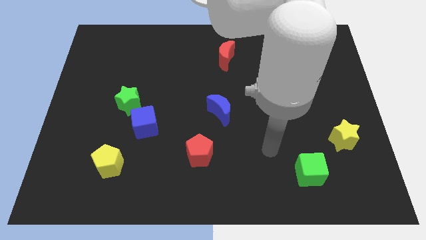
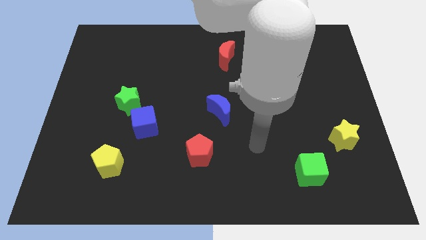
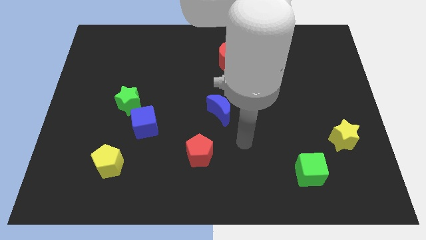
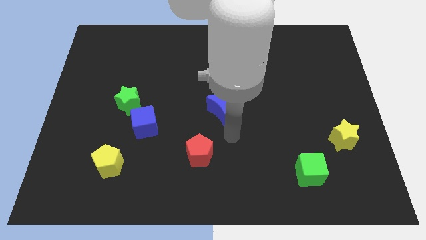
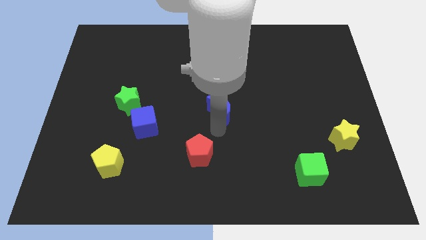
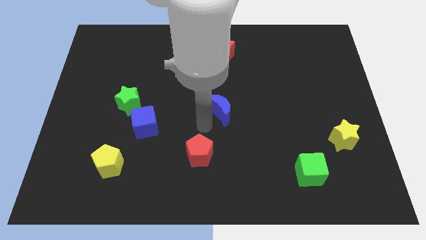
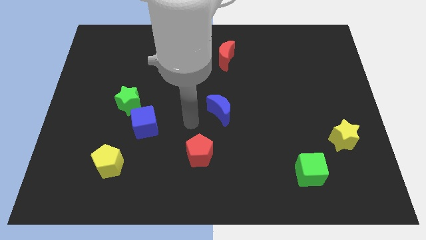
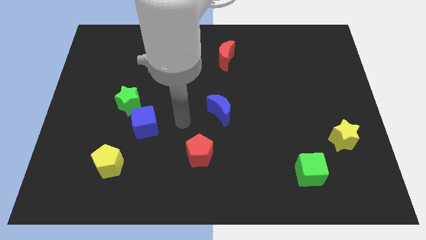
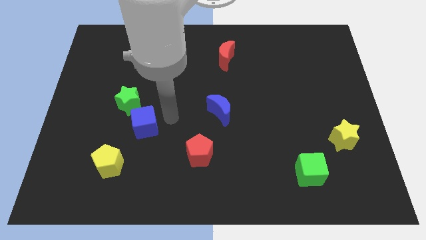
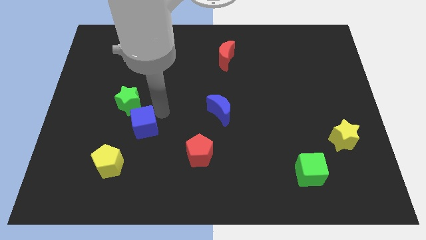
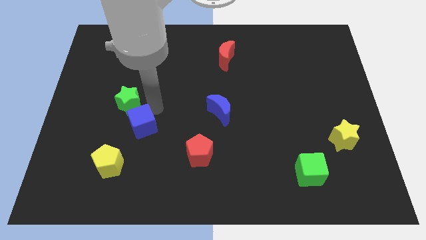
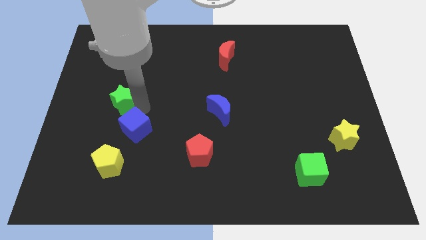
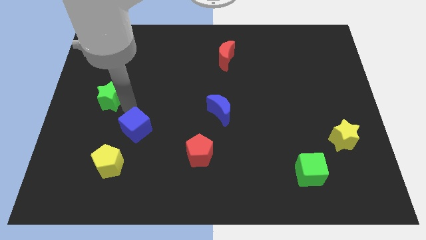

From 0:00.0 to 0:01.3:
move the blue cube away from the green star

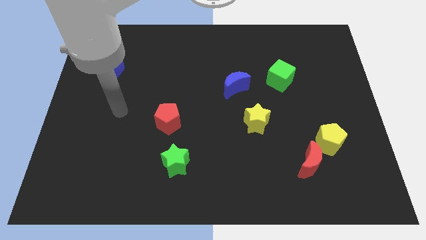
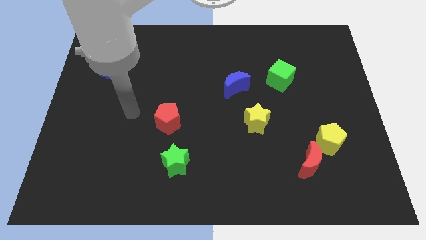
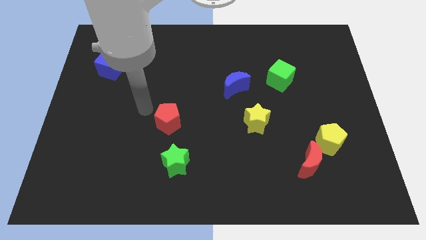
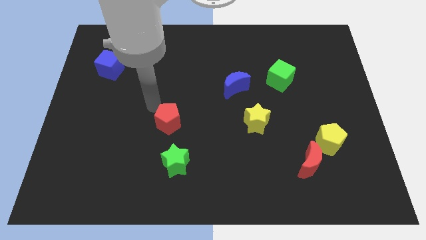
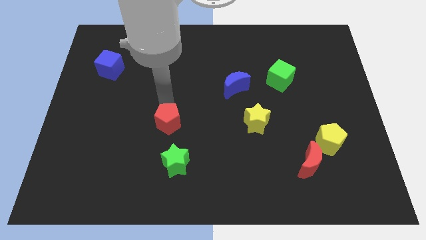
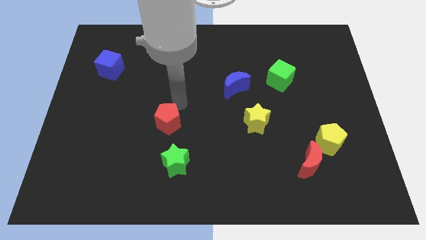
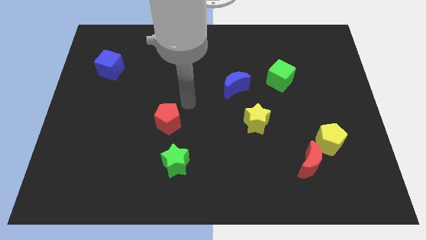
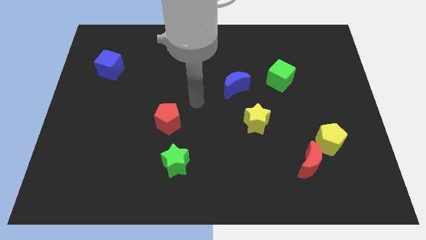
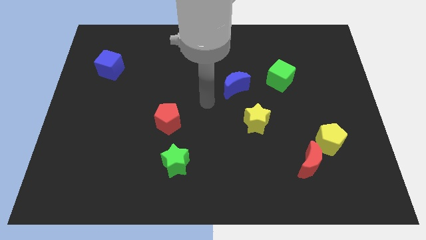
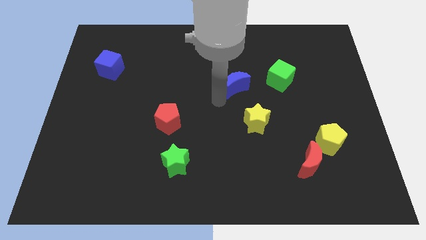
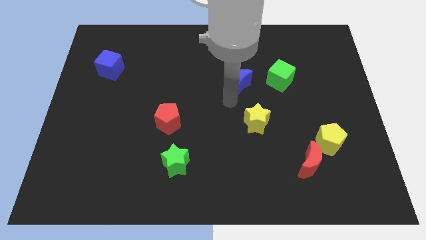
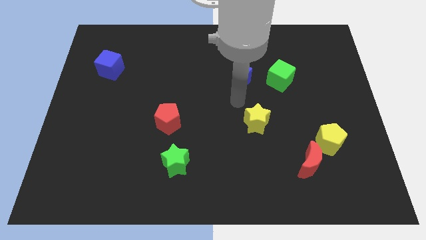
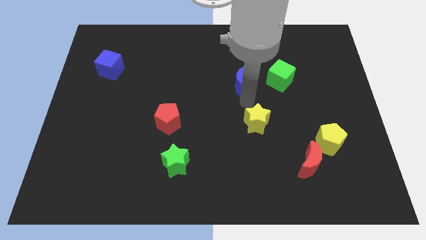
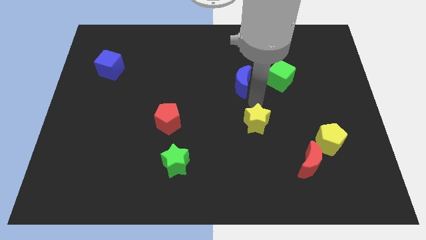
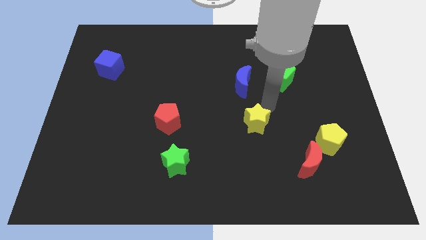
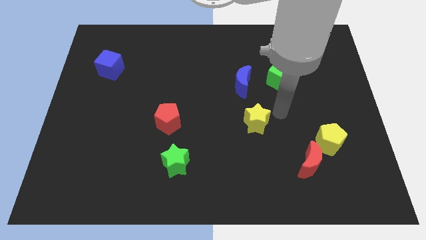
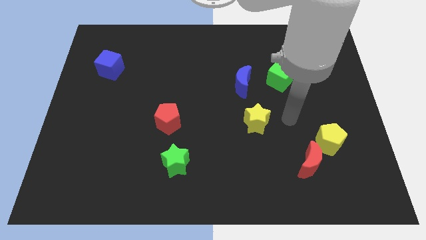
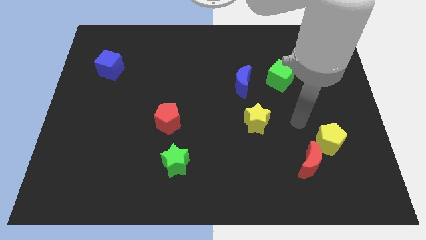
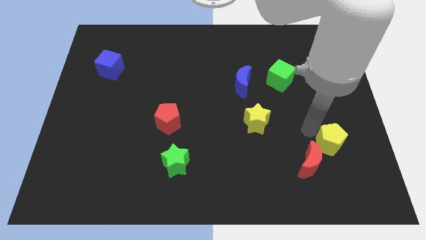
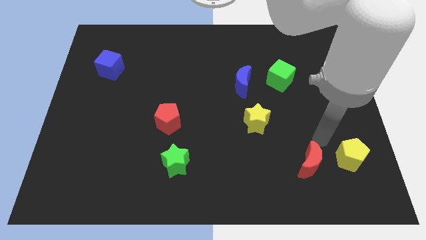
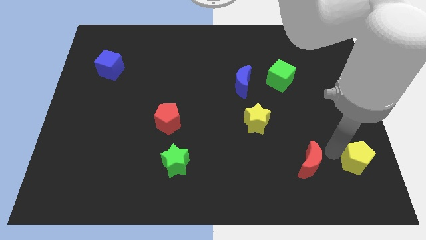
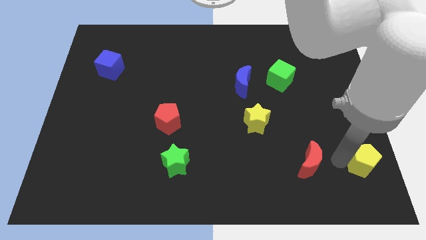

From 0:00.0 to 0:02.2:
pull the red moon apart from the yellow pentagon

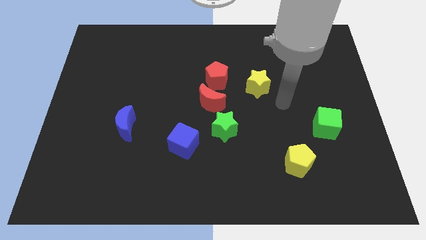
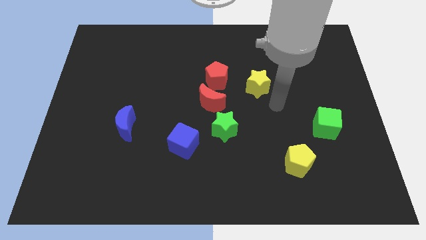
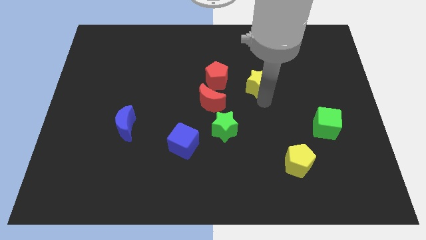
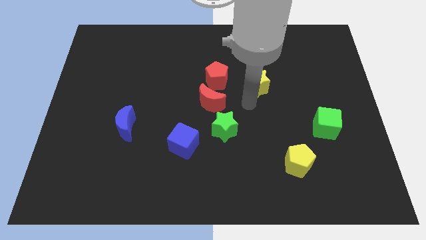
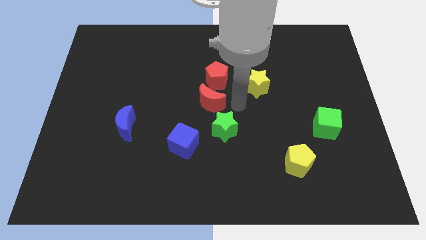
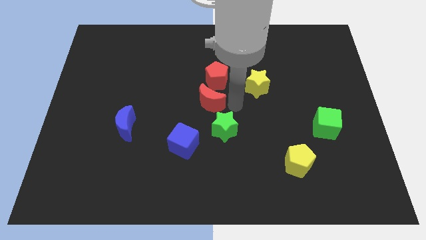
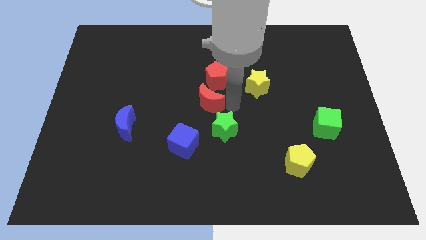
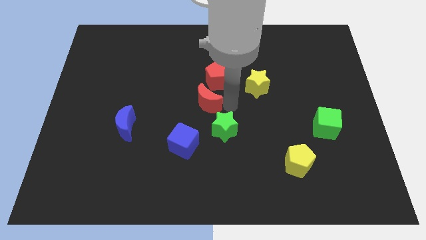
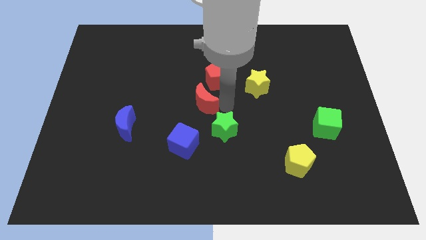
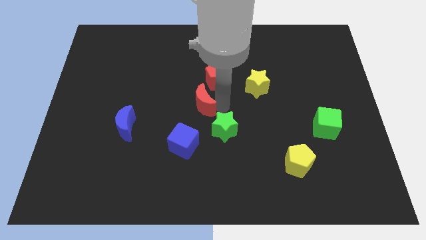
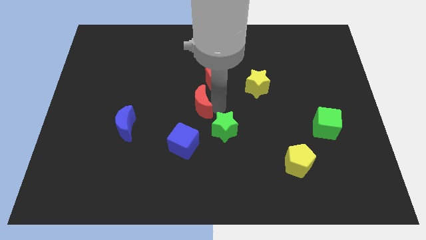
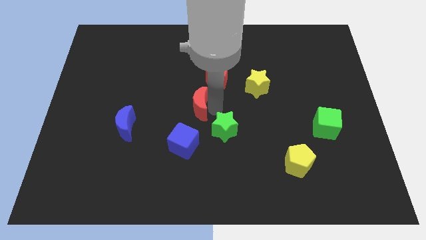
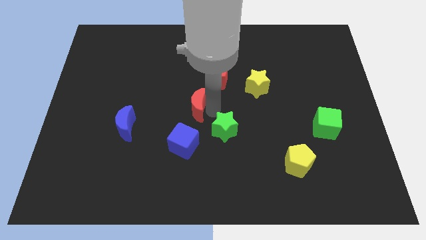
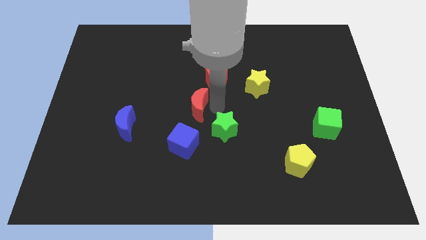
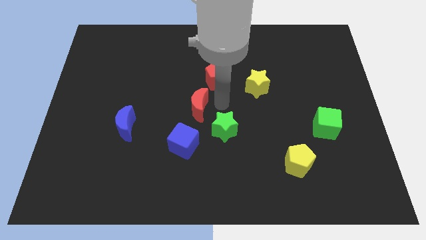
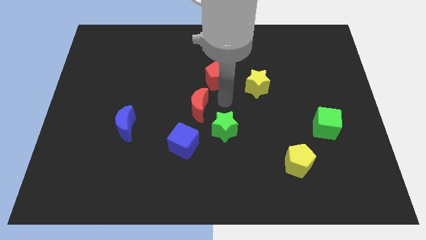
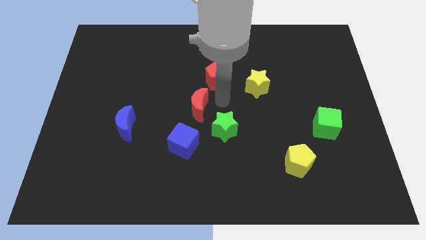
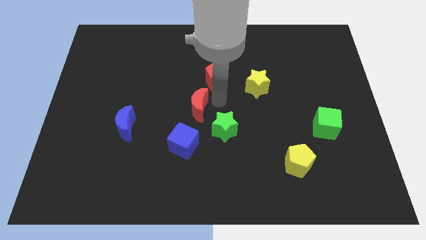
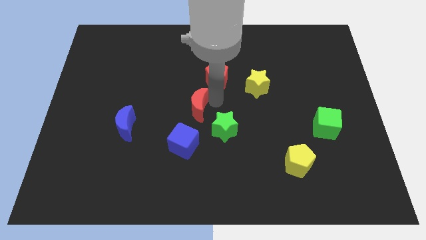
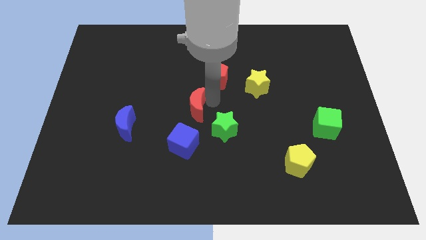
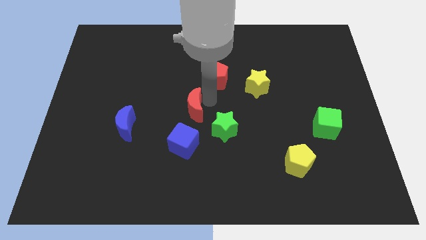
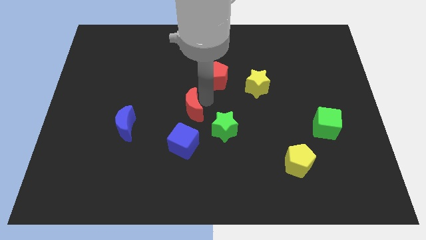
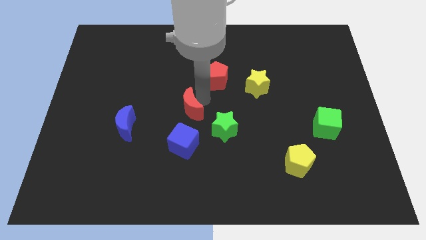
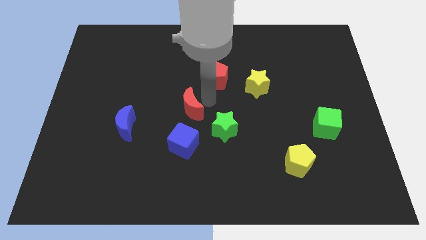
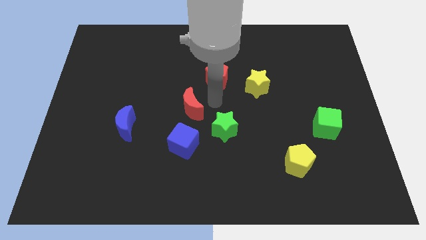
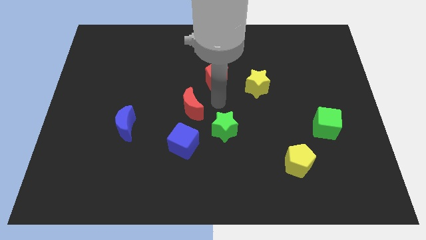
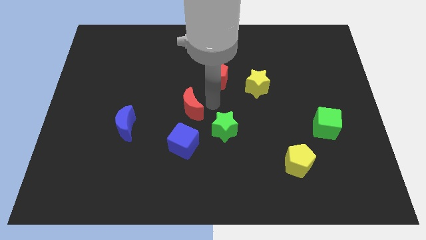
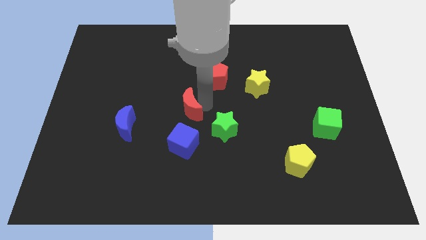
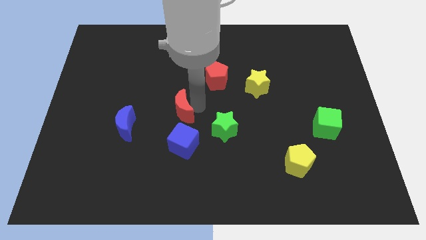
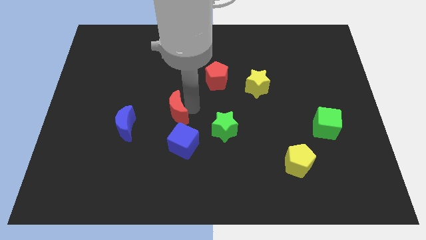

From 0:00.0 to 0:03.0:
move the red moon away from the red pentagon and green star

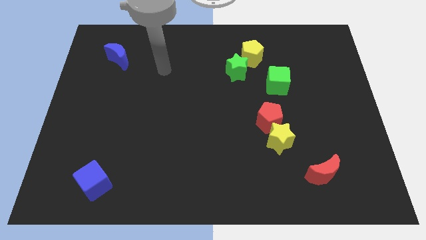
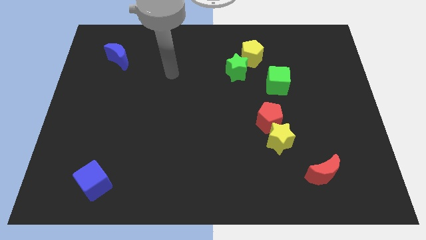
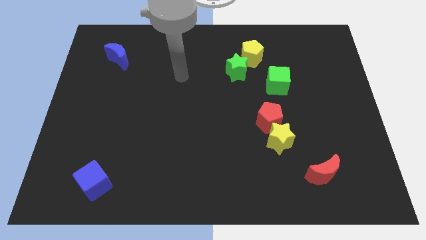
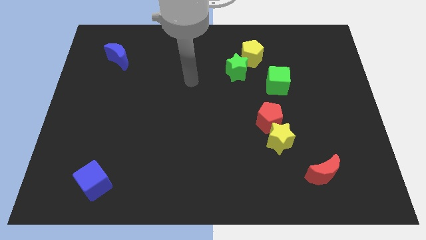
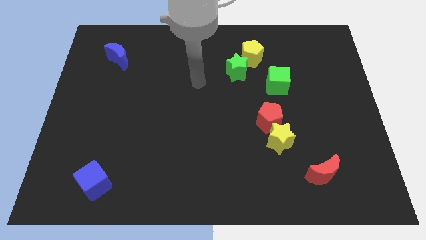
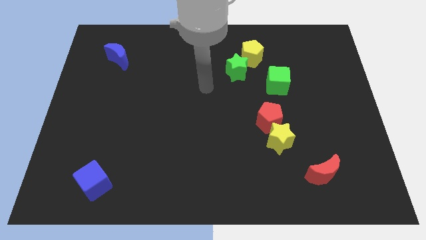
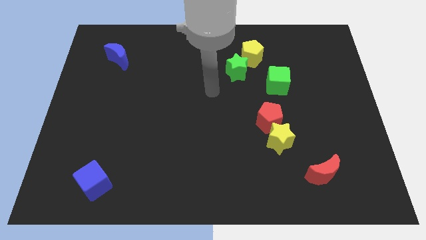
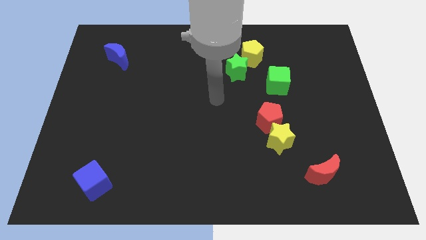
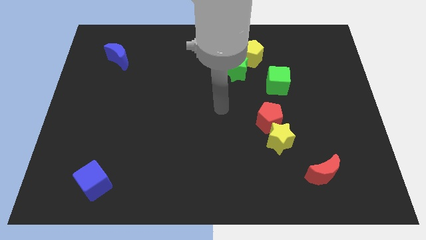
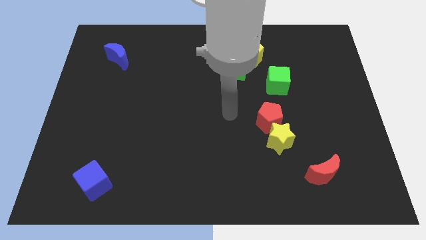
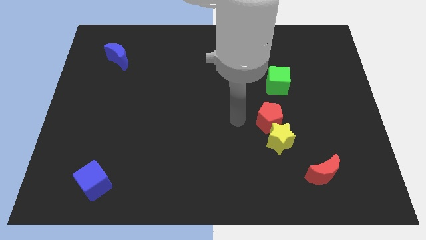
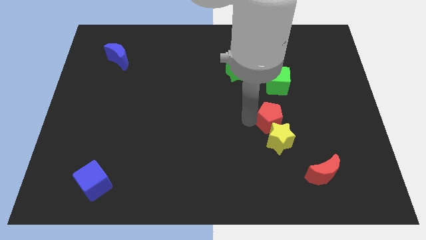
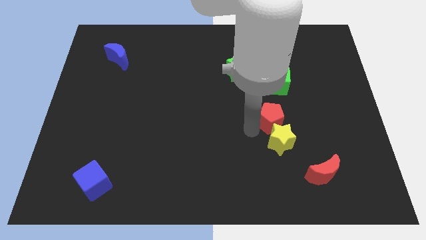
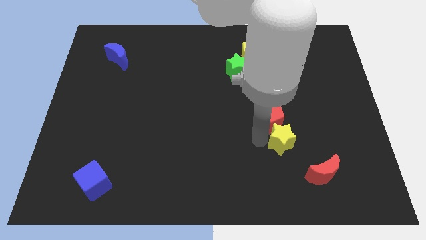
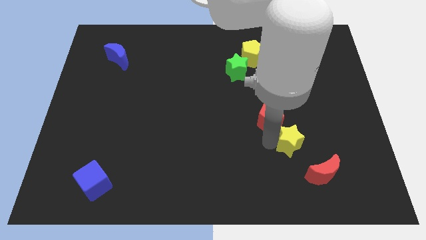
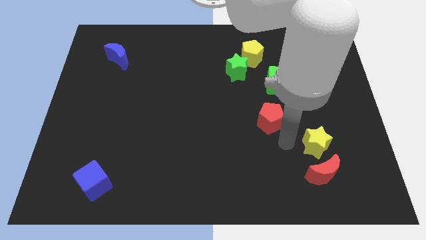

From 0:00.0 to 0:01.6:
separate the red pentagon from the yellow star

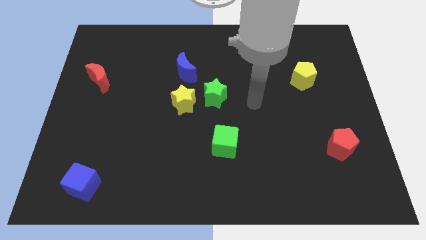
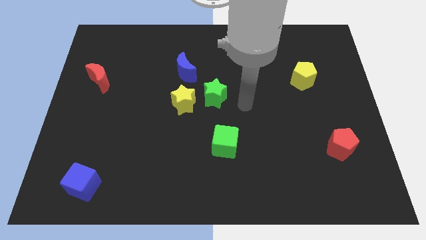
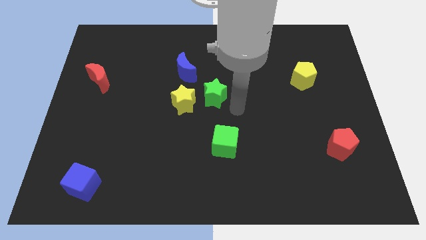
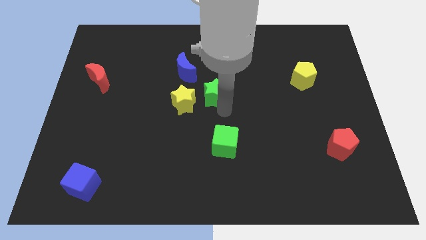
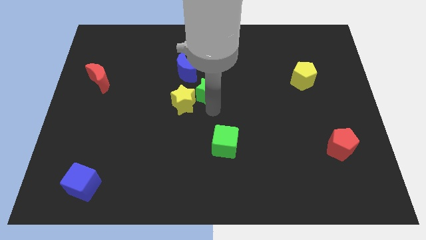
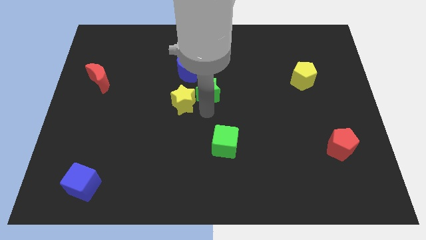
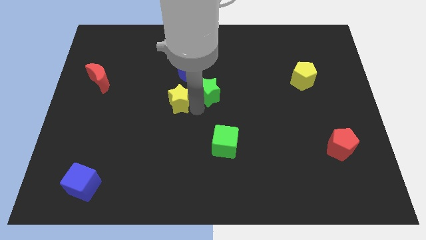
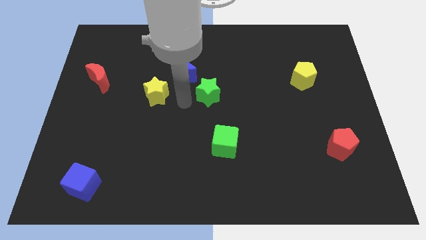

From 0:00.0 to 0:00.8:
pull the green star apart from the yellow star

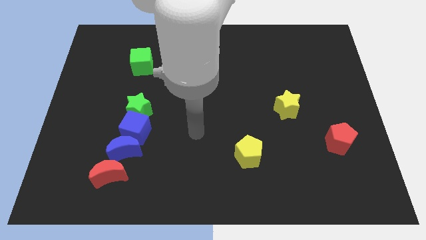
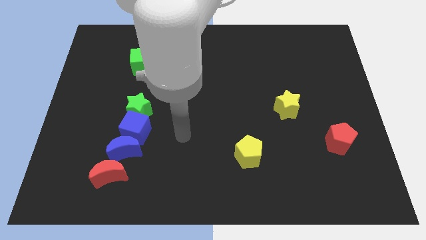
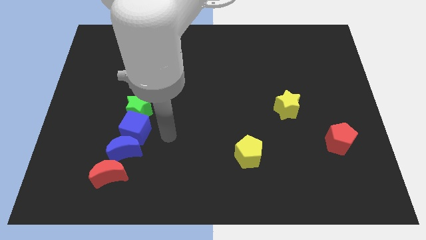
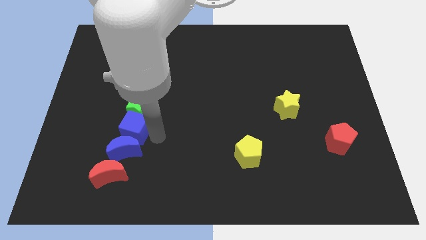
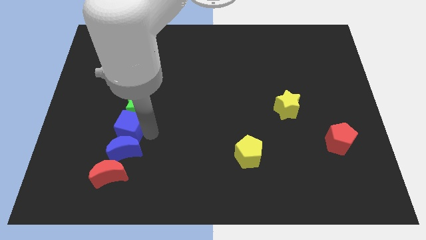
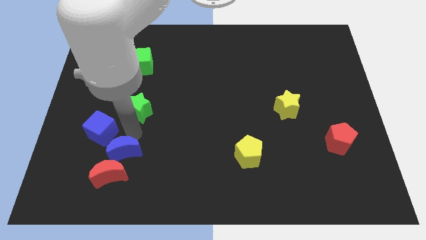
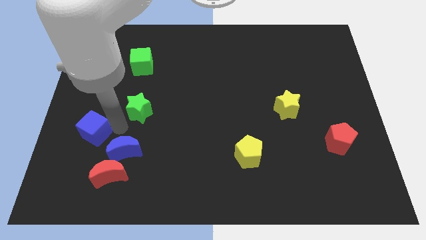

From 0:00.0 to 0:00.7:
separate the green star from the blue cube
